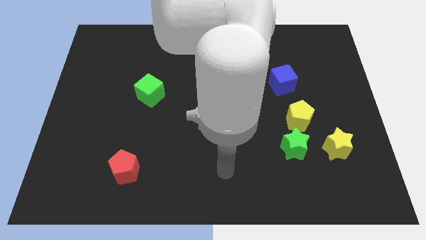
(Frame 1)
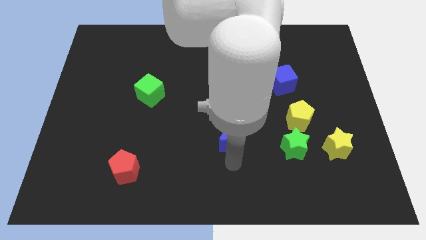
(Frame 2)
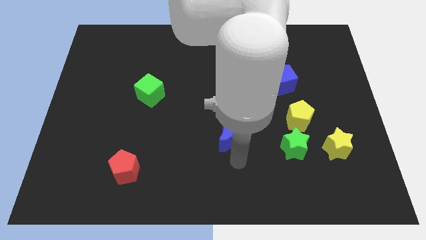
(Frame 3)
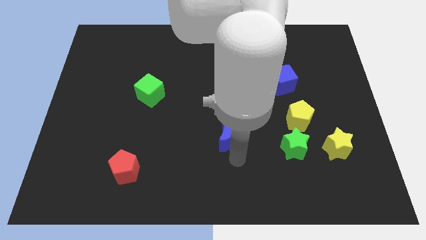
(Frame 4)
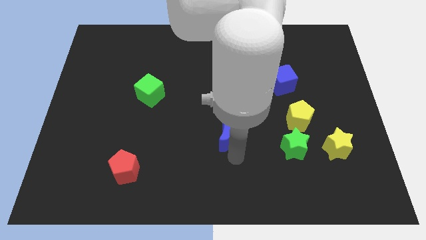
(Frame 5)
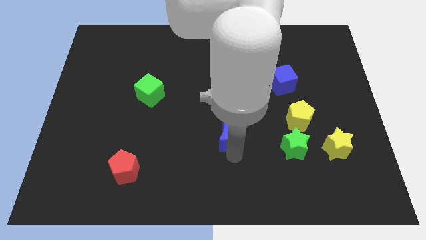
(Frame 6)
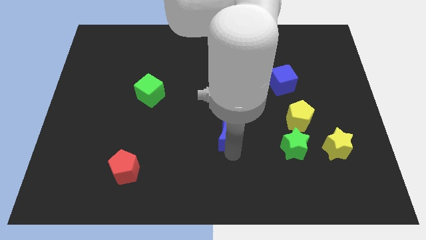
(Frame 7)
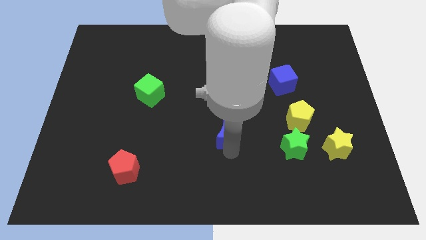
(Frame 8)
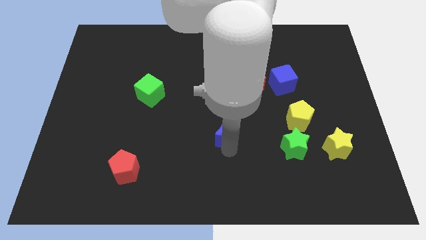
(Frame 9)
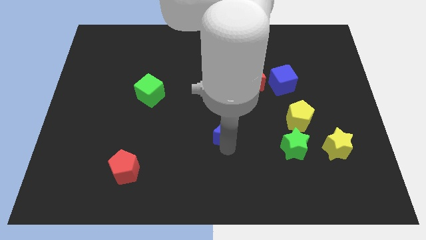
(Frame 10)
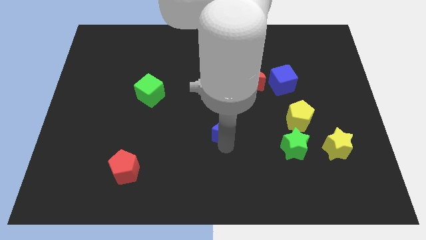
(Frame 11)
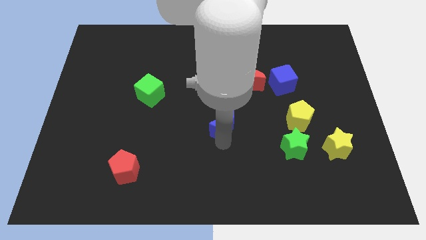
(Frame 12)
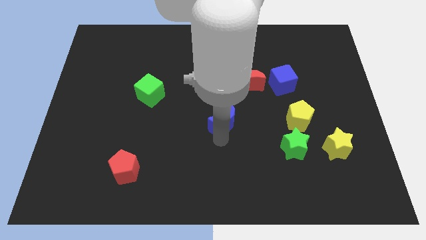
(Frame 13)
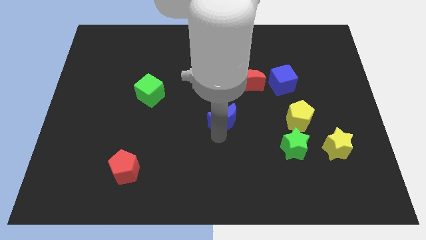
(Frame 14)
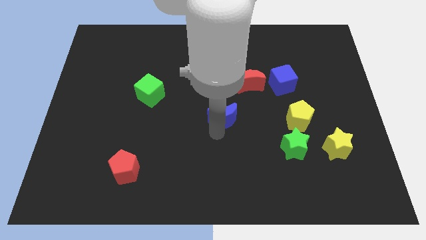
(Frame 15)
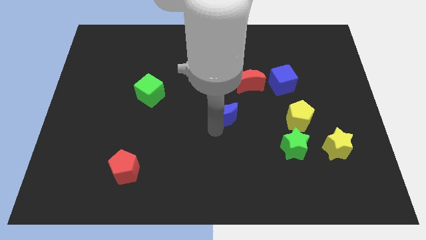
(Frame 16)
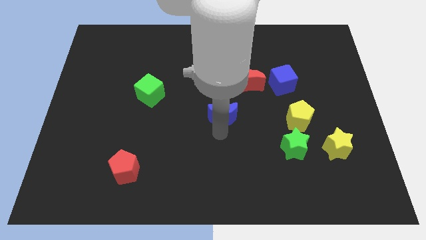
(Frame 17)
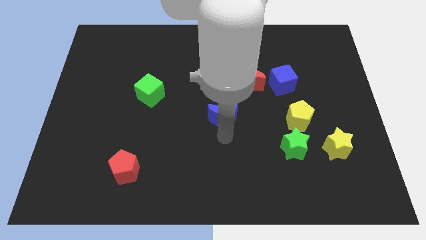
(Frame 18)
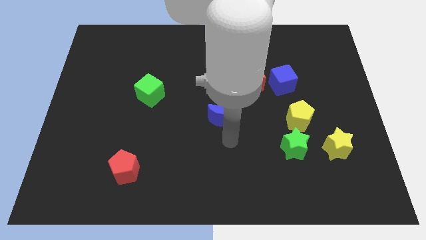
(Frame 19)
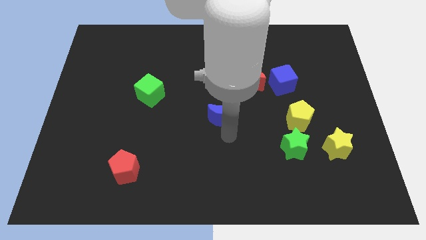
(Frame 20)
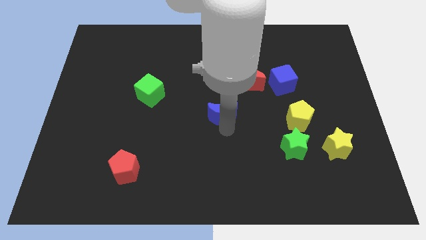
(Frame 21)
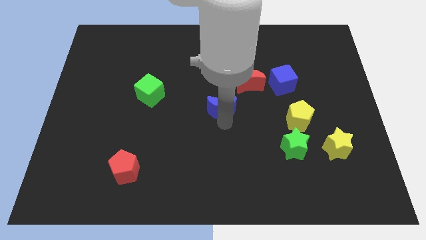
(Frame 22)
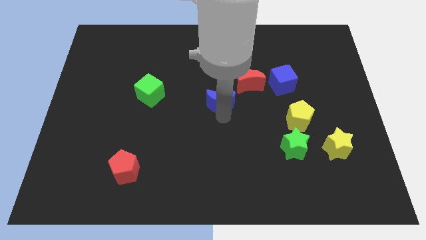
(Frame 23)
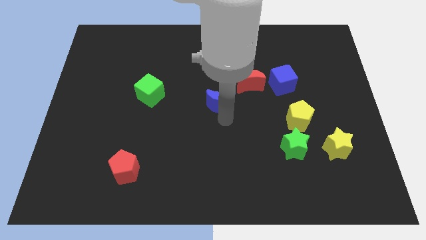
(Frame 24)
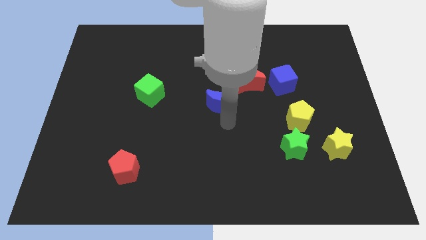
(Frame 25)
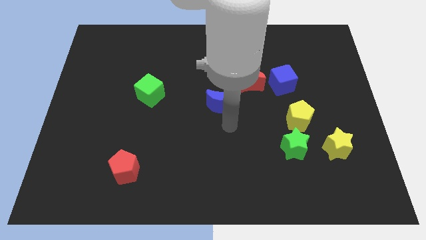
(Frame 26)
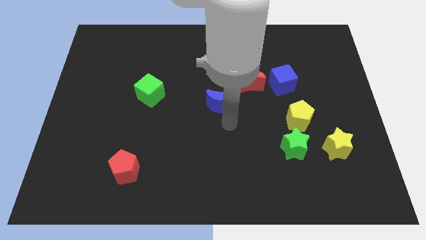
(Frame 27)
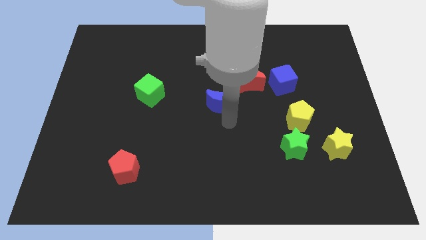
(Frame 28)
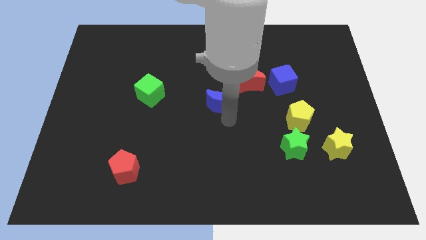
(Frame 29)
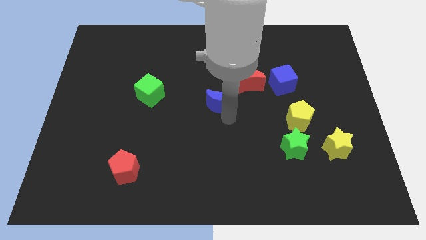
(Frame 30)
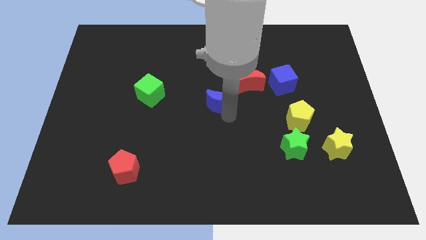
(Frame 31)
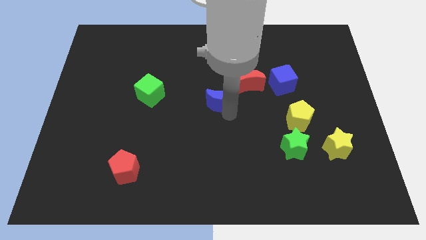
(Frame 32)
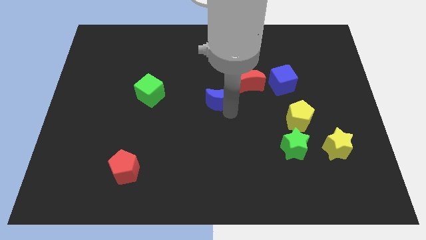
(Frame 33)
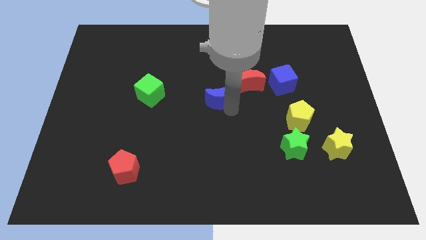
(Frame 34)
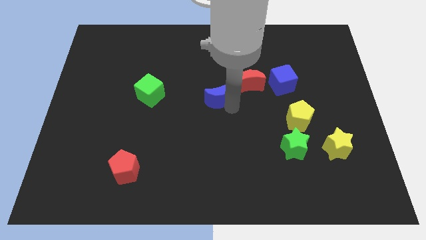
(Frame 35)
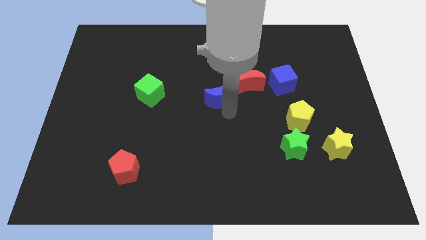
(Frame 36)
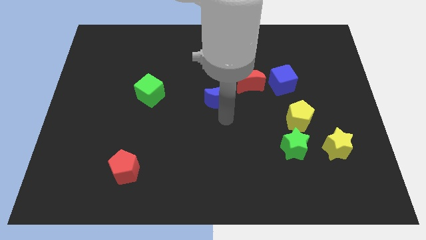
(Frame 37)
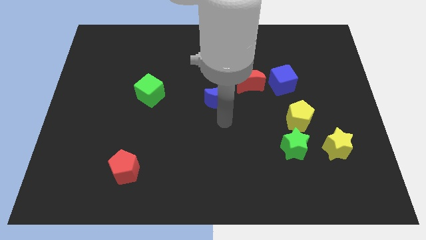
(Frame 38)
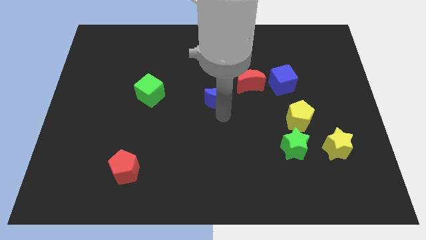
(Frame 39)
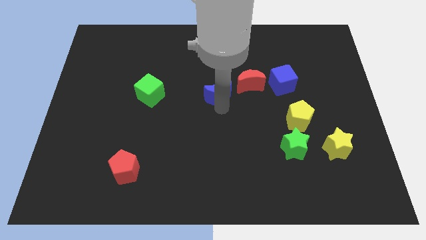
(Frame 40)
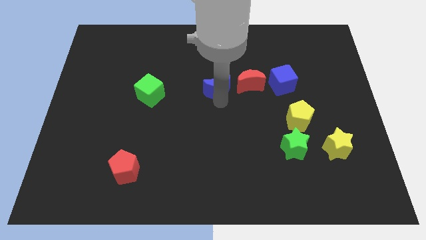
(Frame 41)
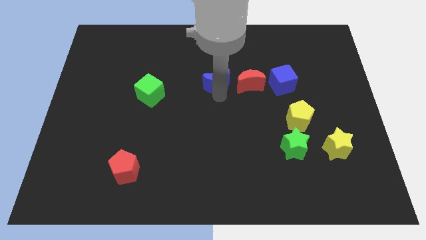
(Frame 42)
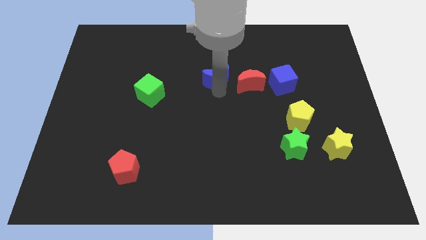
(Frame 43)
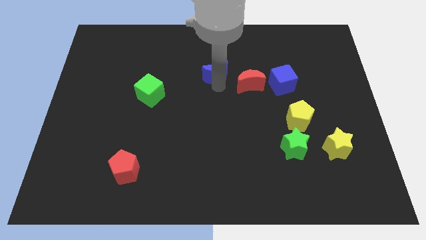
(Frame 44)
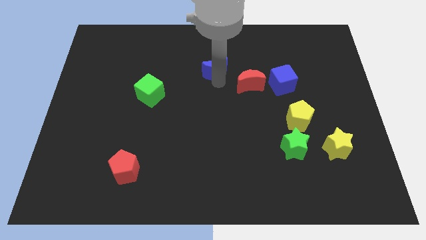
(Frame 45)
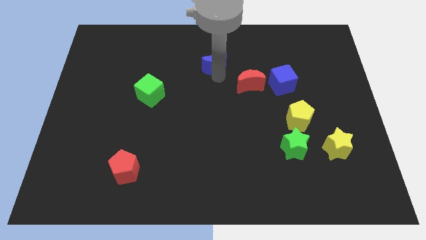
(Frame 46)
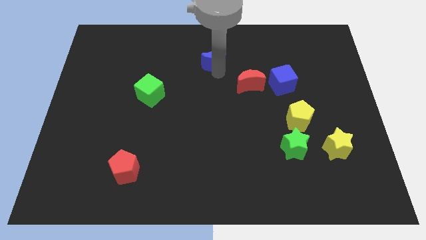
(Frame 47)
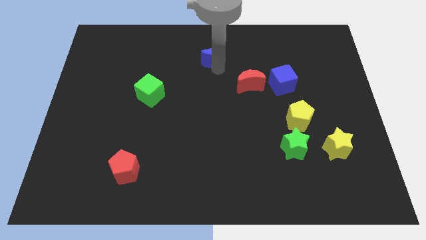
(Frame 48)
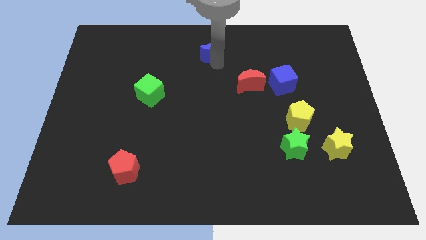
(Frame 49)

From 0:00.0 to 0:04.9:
push the blue moon to the towards your base

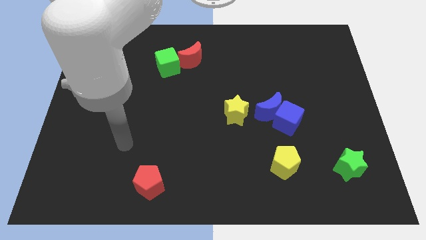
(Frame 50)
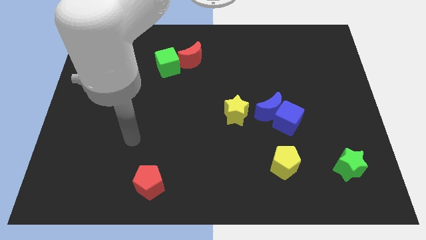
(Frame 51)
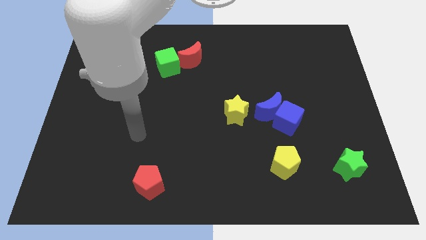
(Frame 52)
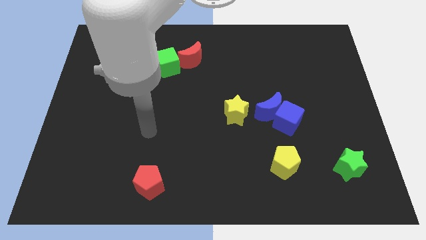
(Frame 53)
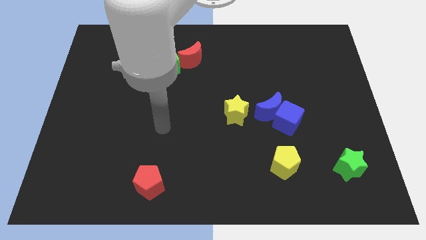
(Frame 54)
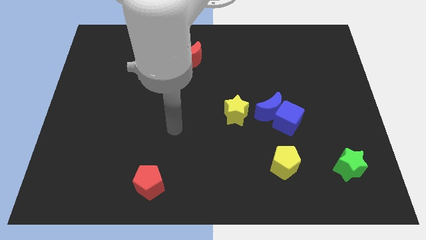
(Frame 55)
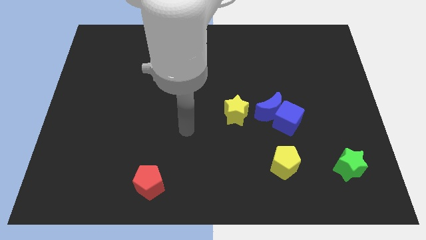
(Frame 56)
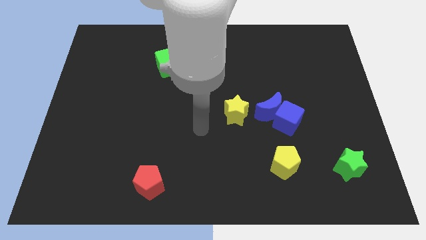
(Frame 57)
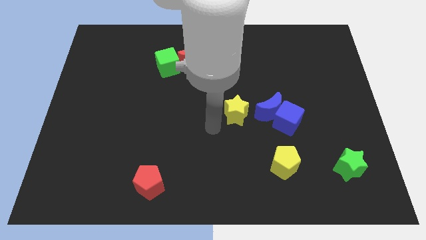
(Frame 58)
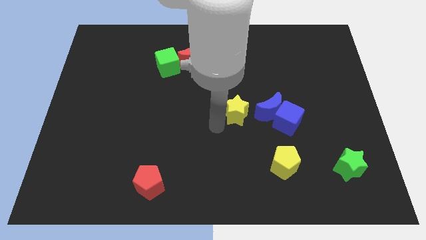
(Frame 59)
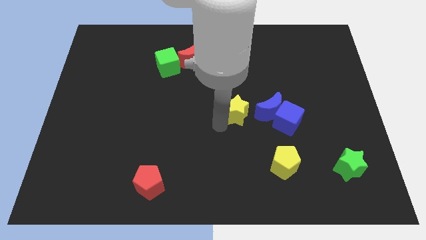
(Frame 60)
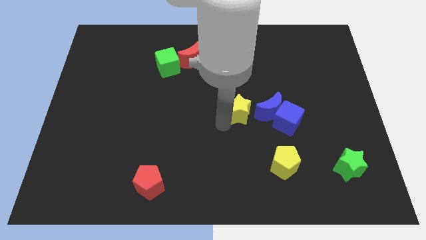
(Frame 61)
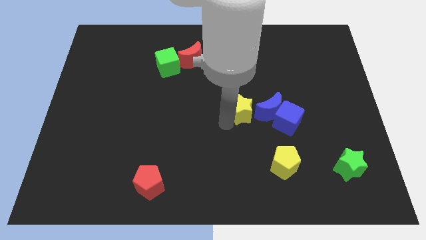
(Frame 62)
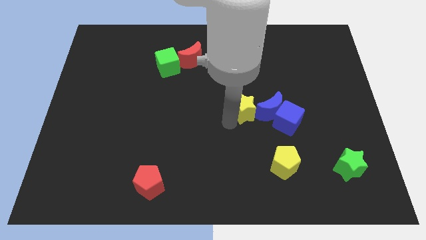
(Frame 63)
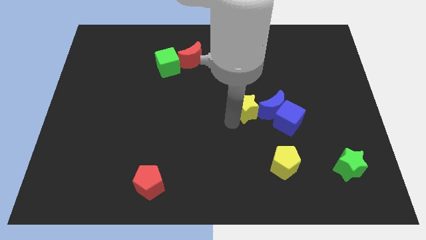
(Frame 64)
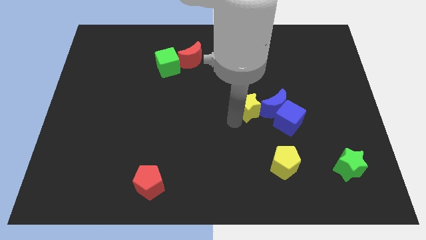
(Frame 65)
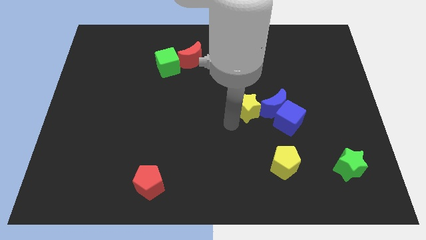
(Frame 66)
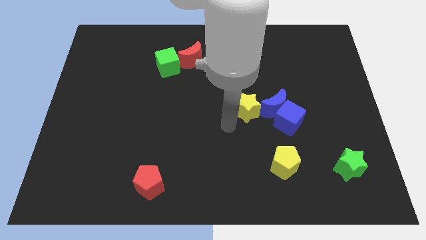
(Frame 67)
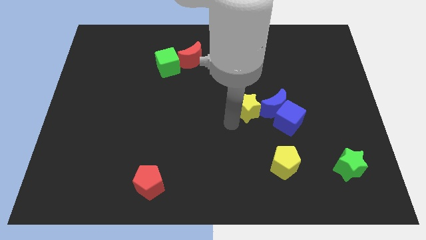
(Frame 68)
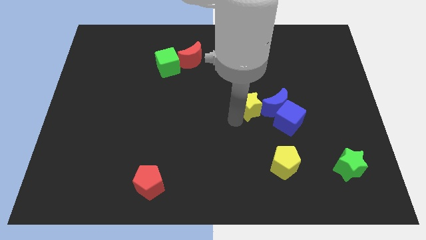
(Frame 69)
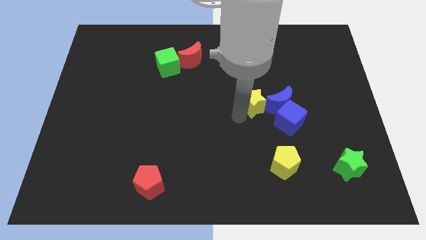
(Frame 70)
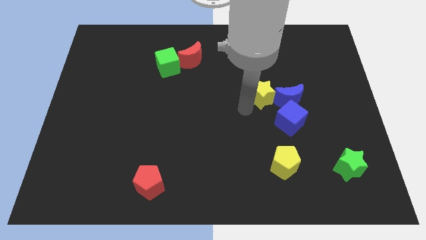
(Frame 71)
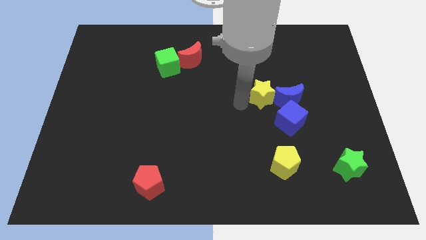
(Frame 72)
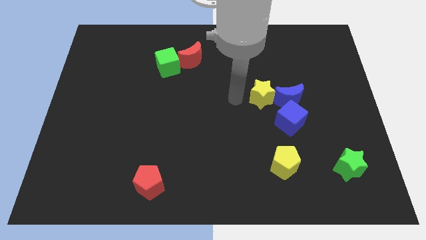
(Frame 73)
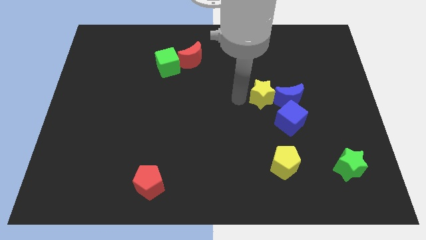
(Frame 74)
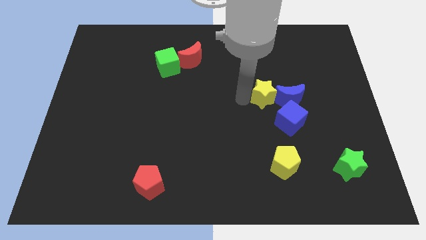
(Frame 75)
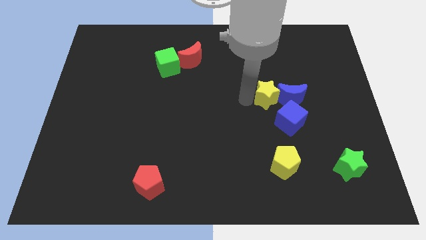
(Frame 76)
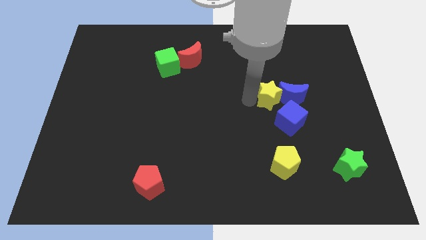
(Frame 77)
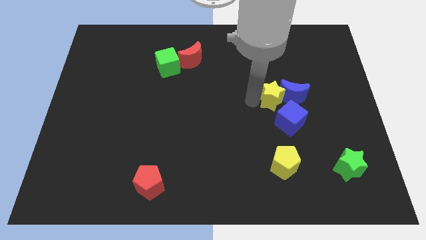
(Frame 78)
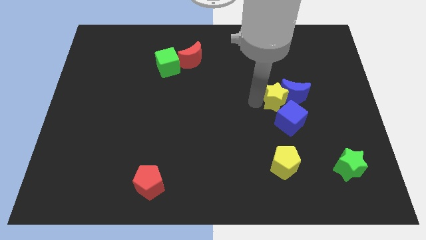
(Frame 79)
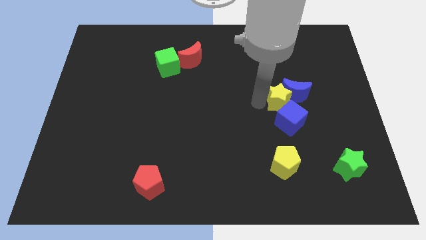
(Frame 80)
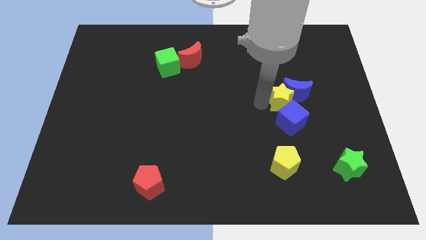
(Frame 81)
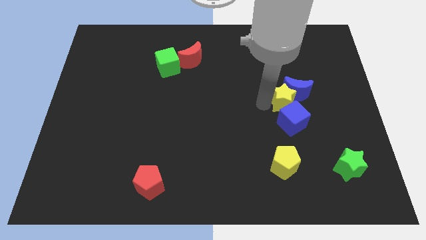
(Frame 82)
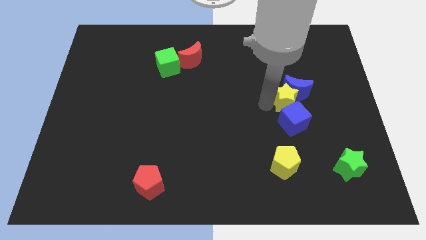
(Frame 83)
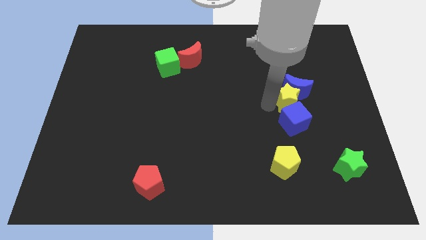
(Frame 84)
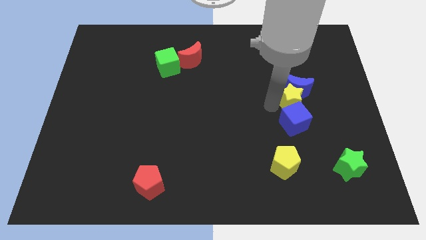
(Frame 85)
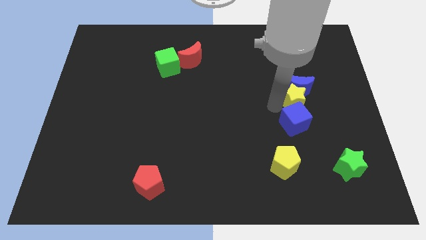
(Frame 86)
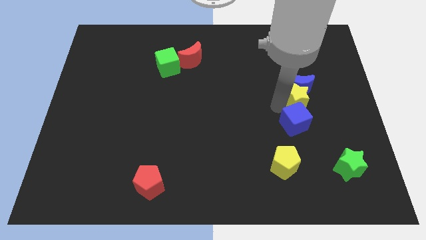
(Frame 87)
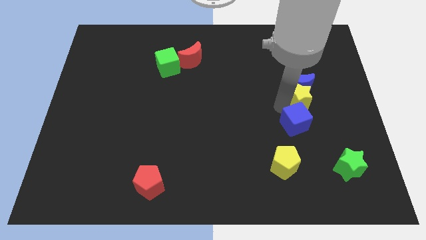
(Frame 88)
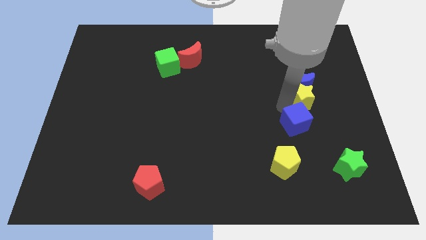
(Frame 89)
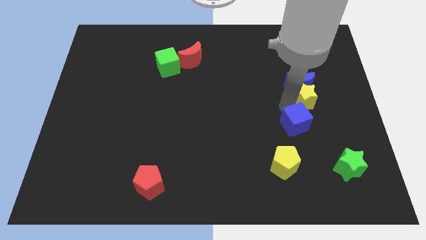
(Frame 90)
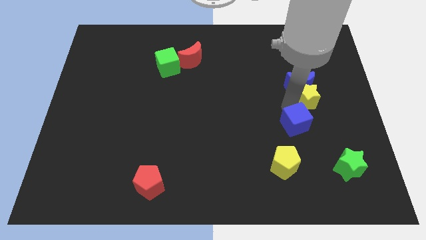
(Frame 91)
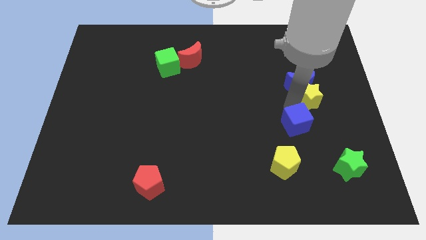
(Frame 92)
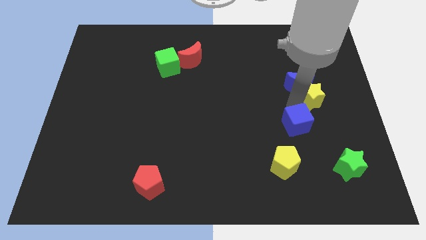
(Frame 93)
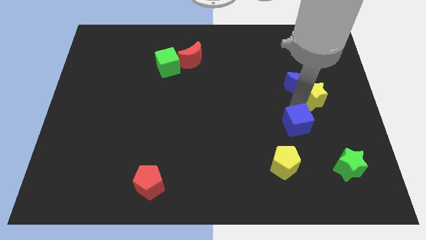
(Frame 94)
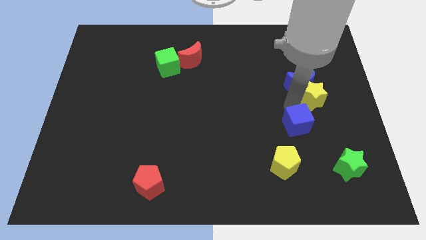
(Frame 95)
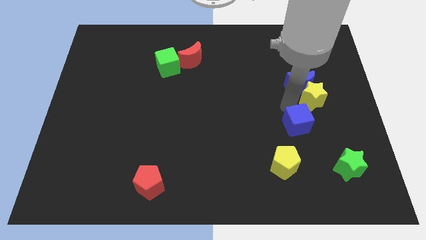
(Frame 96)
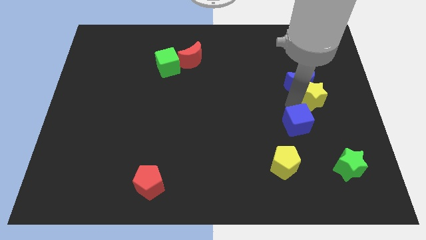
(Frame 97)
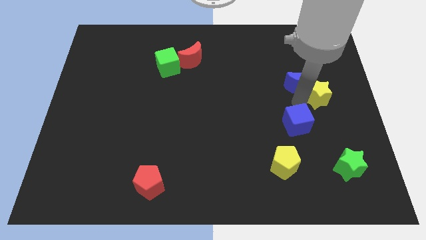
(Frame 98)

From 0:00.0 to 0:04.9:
put the yellow star to the center right
